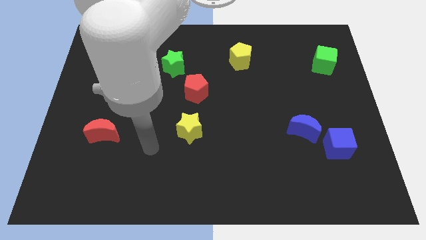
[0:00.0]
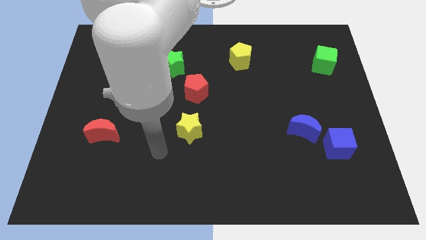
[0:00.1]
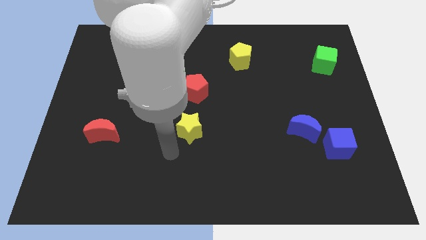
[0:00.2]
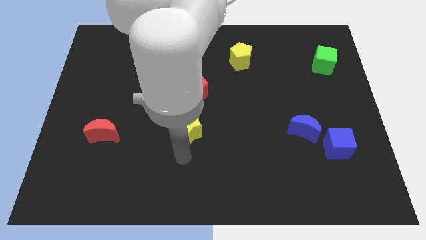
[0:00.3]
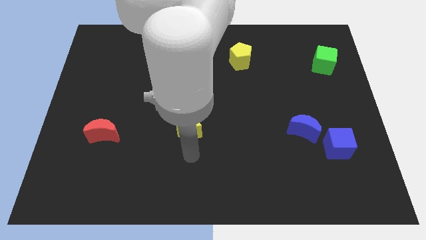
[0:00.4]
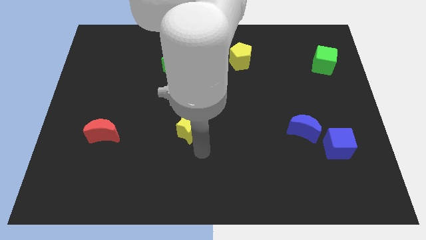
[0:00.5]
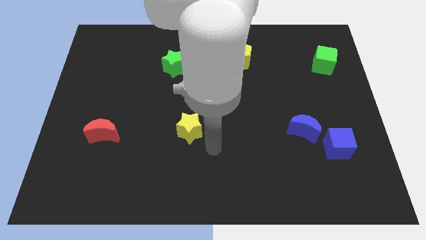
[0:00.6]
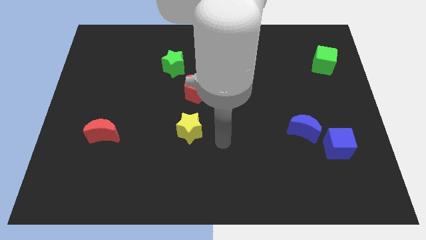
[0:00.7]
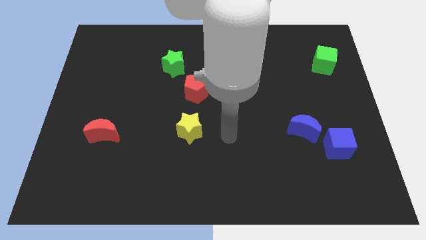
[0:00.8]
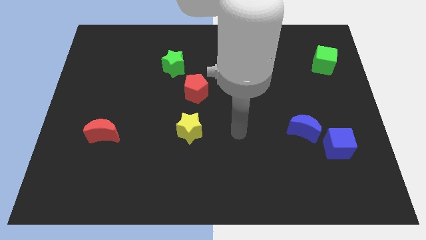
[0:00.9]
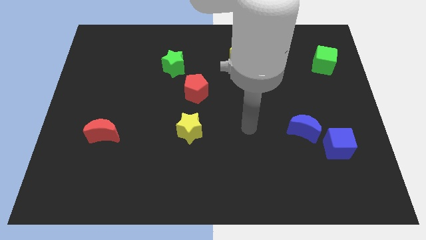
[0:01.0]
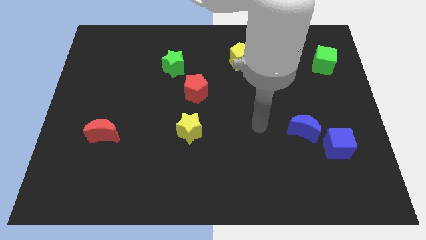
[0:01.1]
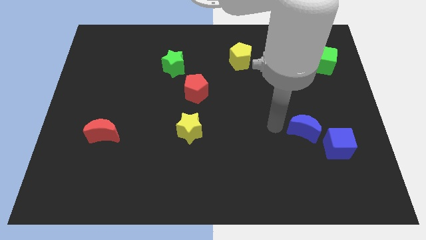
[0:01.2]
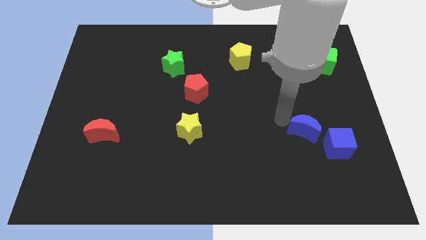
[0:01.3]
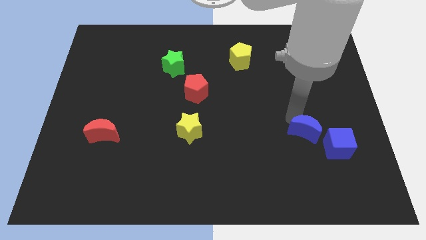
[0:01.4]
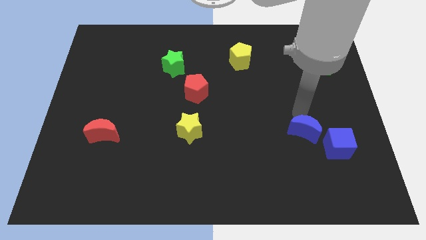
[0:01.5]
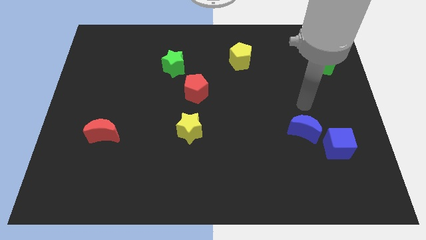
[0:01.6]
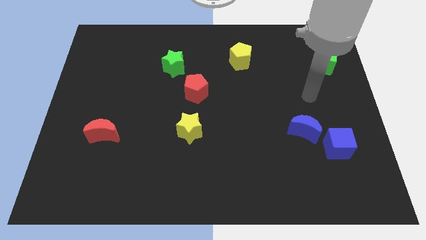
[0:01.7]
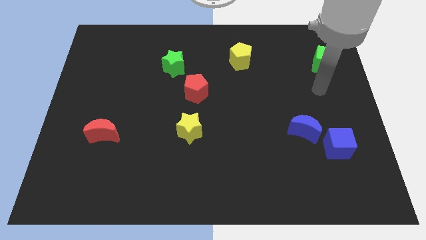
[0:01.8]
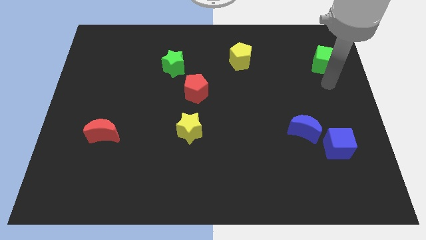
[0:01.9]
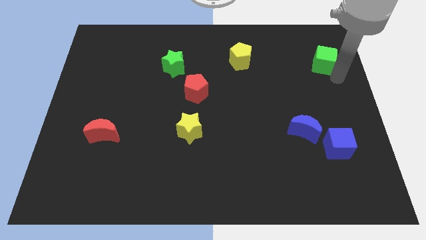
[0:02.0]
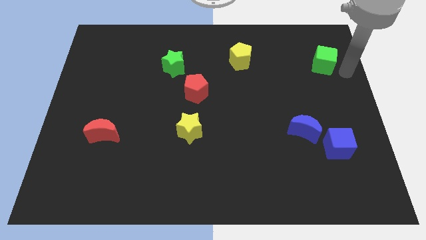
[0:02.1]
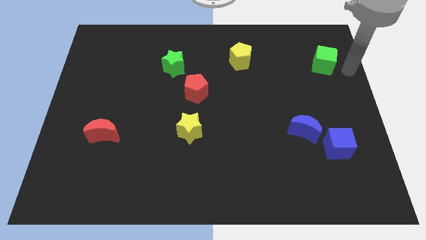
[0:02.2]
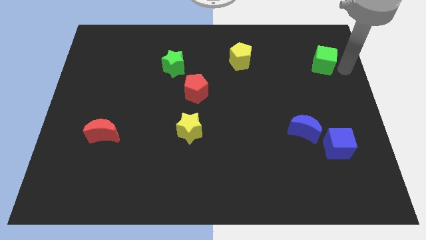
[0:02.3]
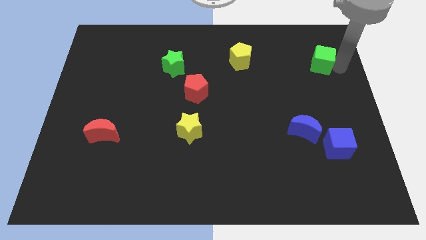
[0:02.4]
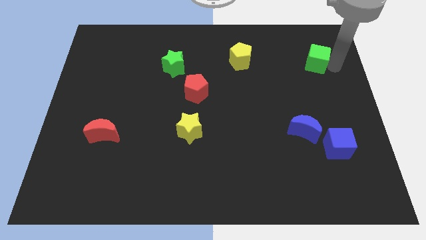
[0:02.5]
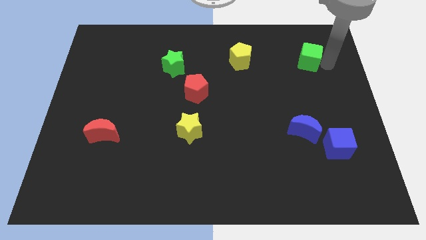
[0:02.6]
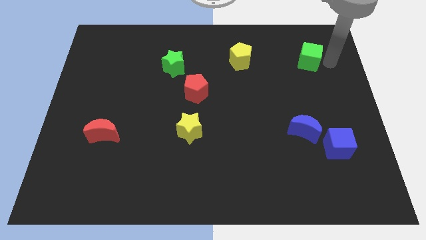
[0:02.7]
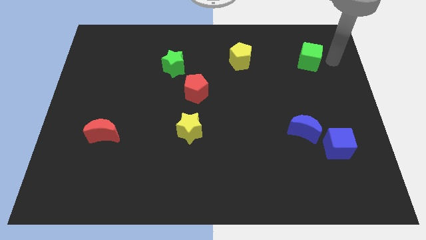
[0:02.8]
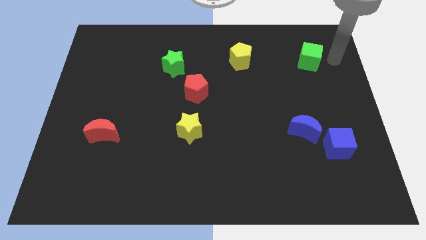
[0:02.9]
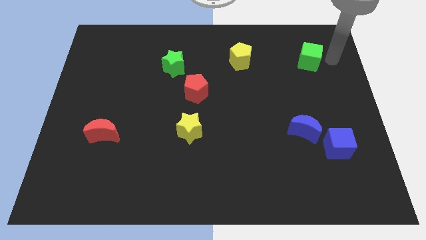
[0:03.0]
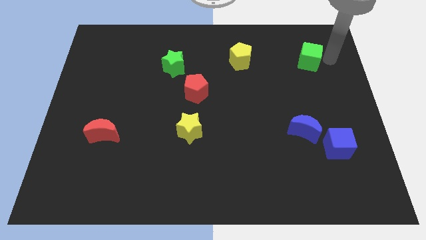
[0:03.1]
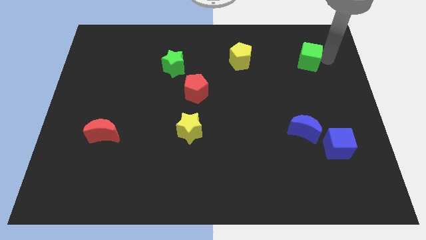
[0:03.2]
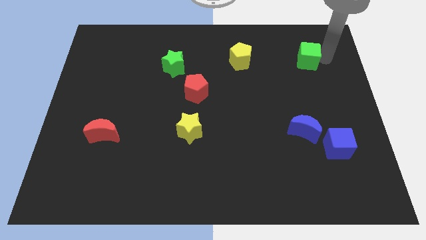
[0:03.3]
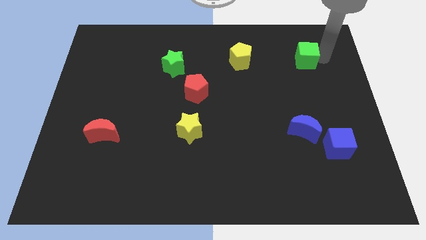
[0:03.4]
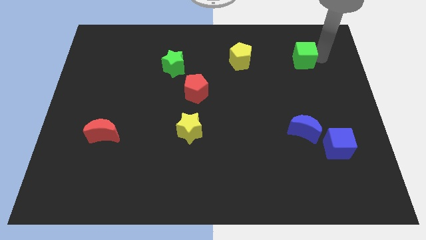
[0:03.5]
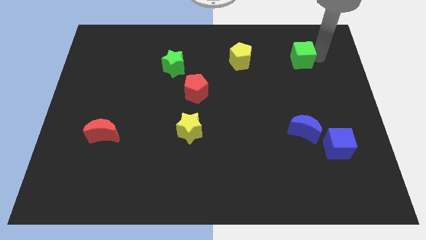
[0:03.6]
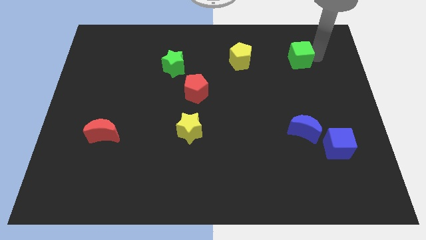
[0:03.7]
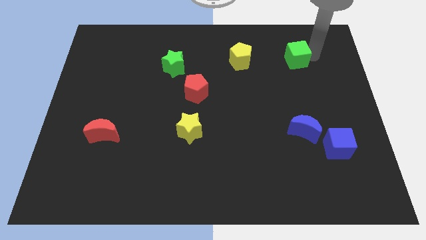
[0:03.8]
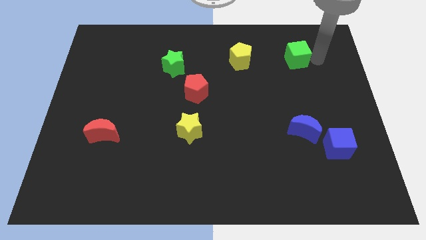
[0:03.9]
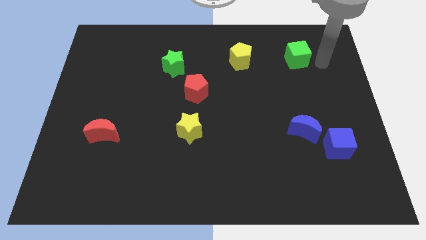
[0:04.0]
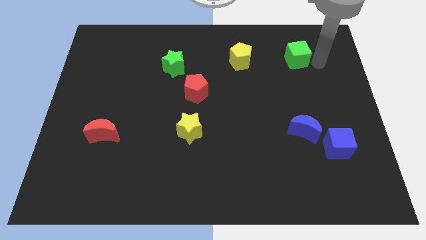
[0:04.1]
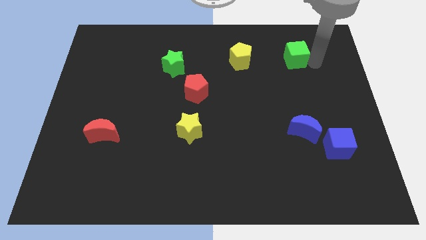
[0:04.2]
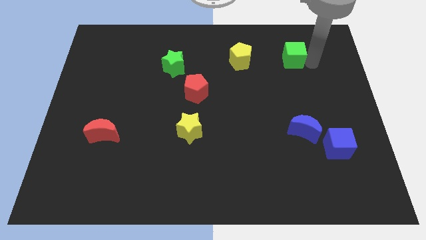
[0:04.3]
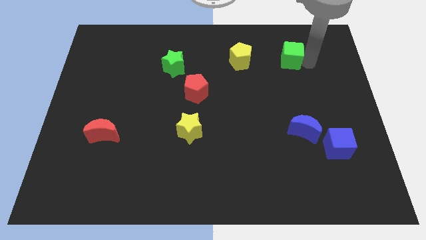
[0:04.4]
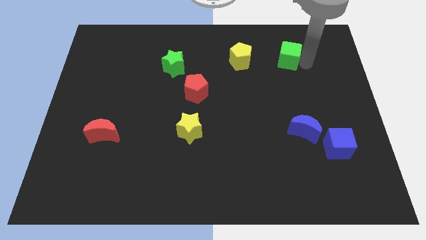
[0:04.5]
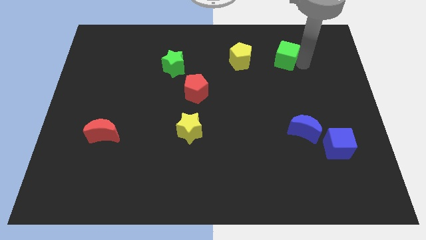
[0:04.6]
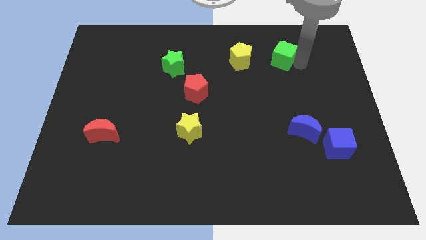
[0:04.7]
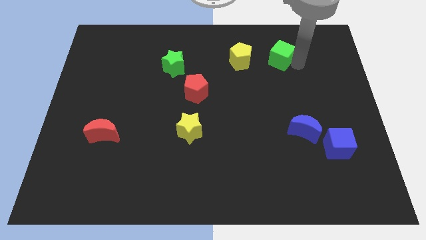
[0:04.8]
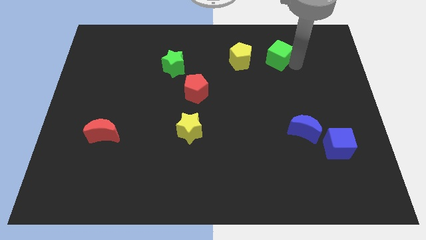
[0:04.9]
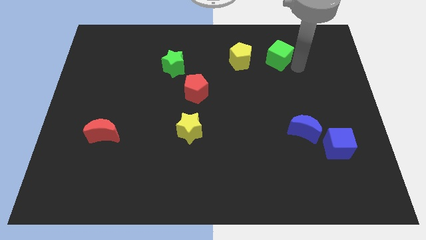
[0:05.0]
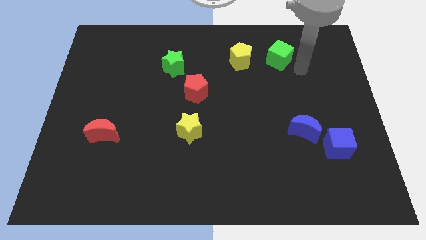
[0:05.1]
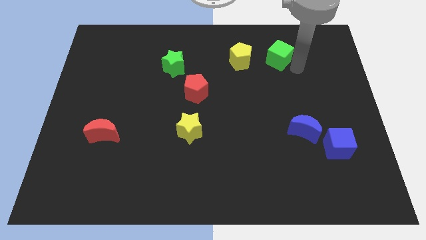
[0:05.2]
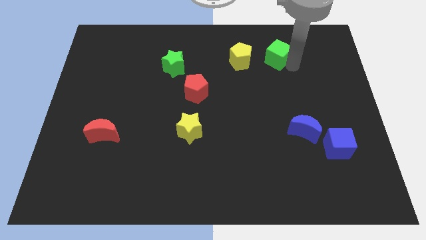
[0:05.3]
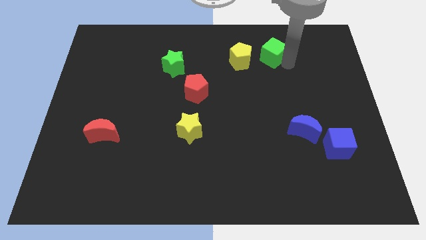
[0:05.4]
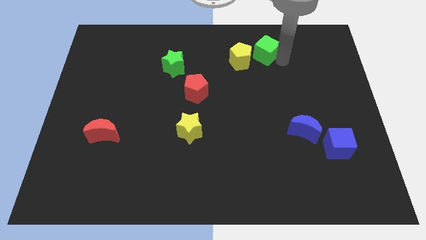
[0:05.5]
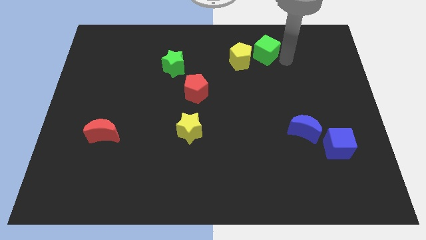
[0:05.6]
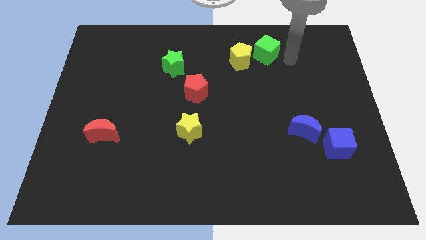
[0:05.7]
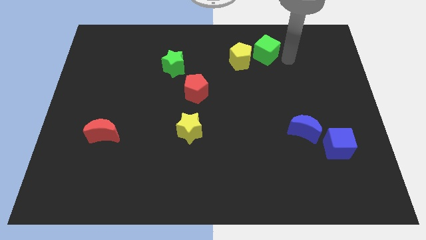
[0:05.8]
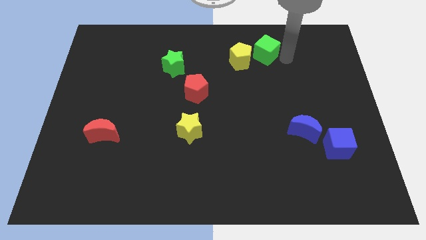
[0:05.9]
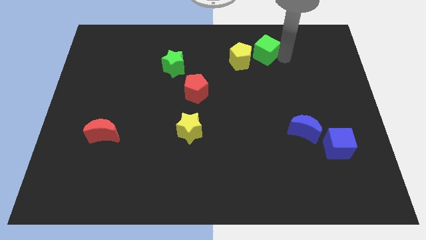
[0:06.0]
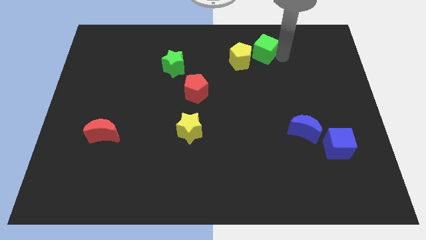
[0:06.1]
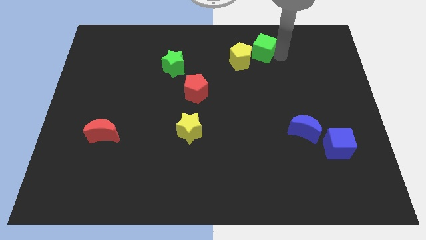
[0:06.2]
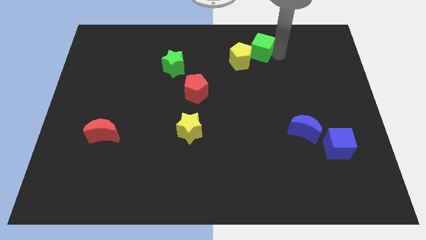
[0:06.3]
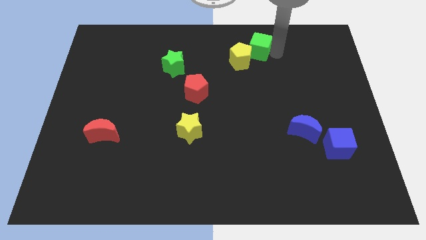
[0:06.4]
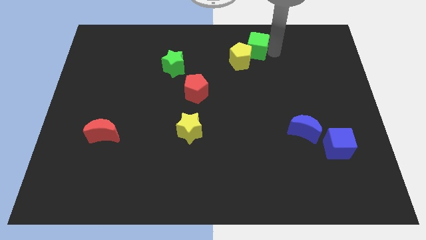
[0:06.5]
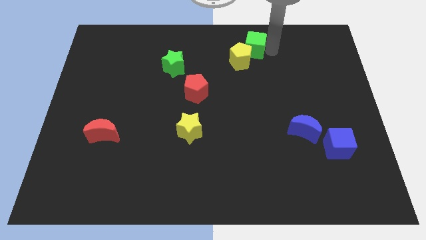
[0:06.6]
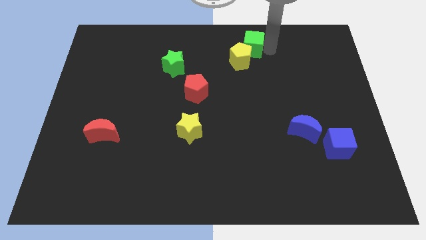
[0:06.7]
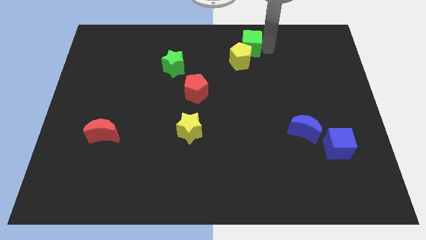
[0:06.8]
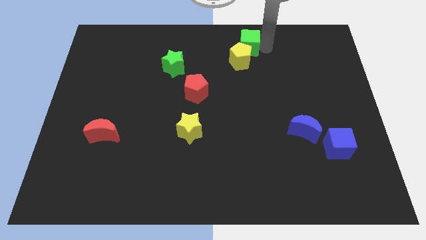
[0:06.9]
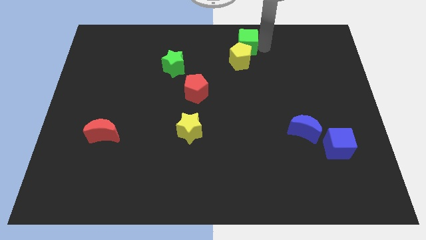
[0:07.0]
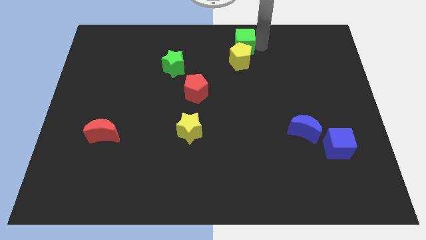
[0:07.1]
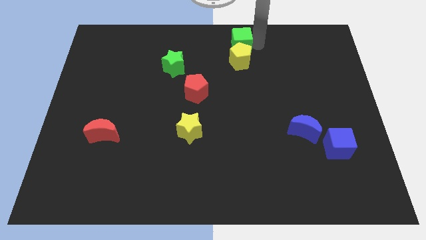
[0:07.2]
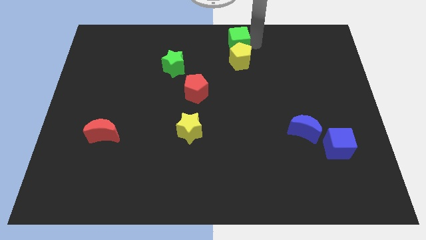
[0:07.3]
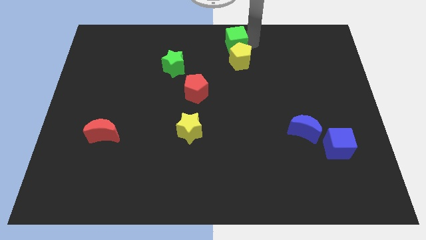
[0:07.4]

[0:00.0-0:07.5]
push the green cube to the left

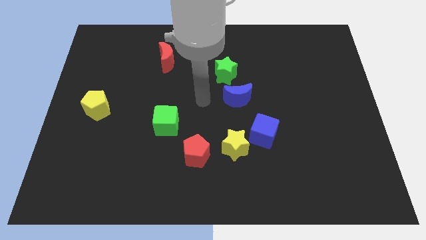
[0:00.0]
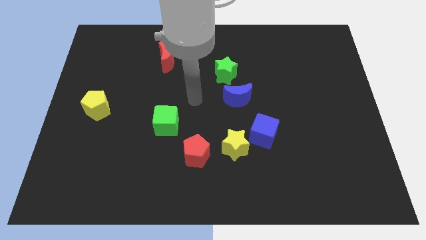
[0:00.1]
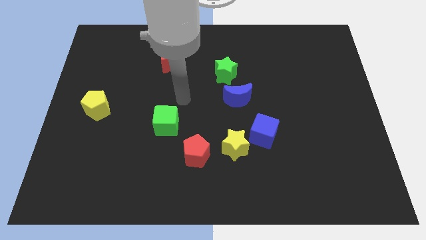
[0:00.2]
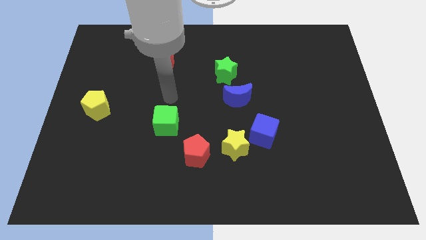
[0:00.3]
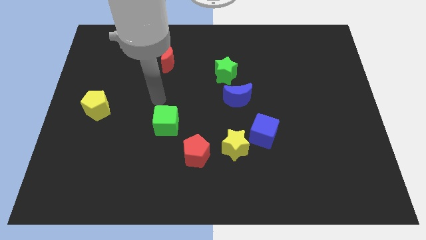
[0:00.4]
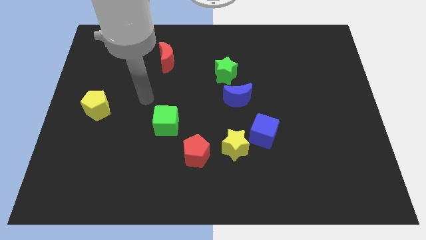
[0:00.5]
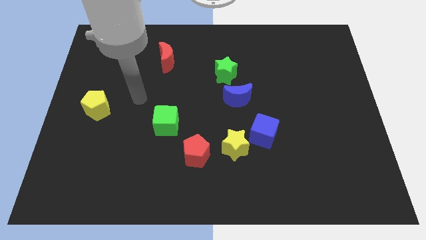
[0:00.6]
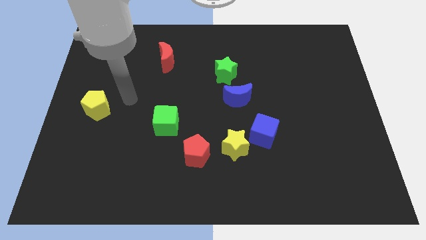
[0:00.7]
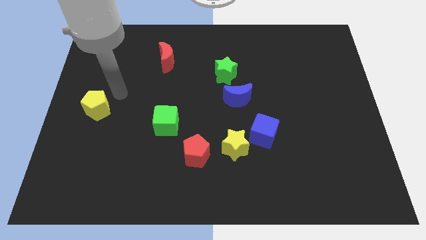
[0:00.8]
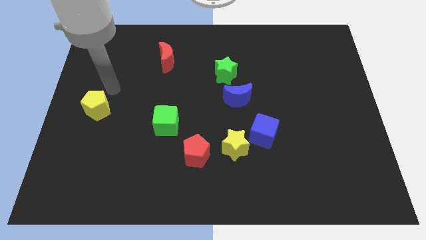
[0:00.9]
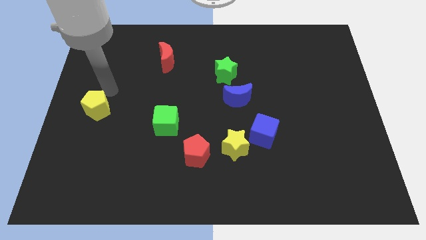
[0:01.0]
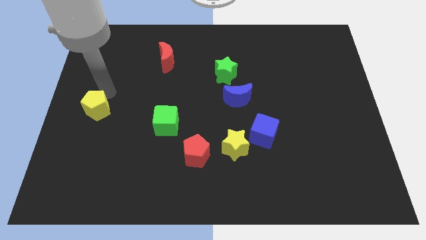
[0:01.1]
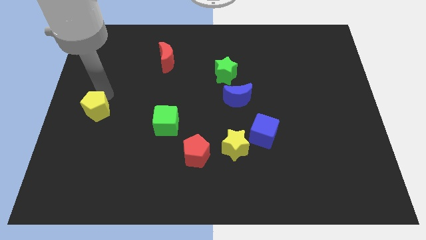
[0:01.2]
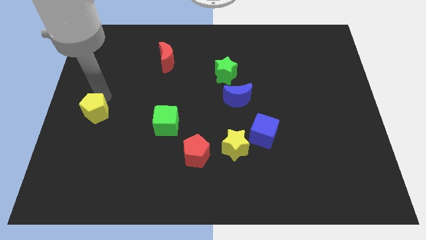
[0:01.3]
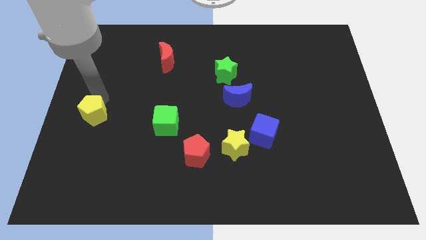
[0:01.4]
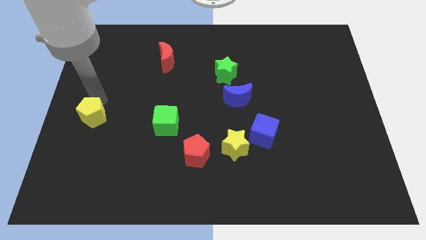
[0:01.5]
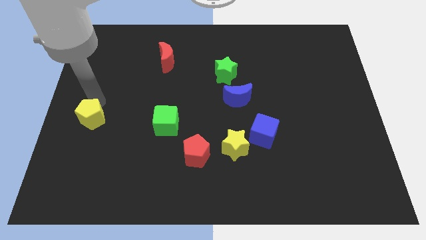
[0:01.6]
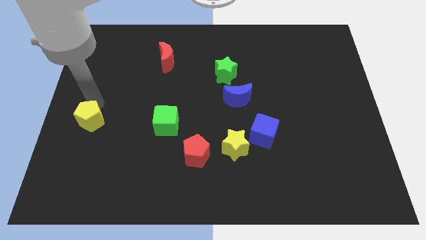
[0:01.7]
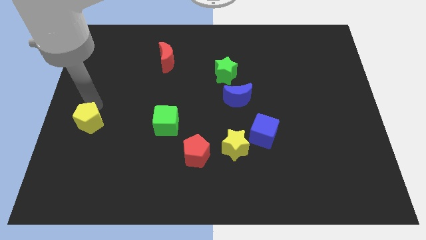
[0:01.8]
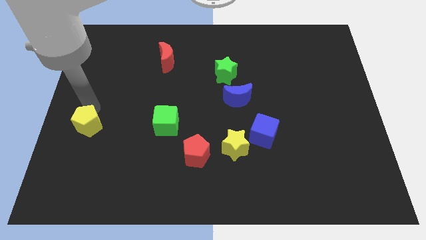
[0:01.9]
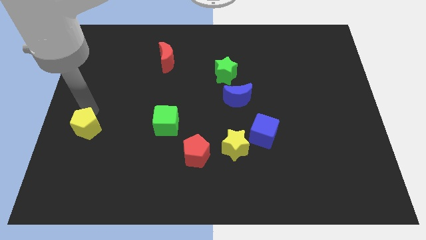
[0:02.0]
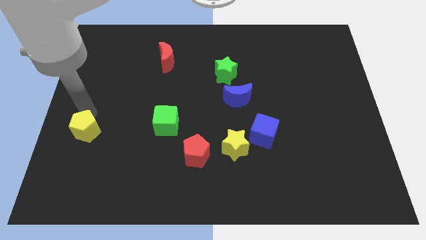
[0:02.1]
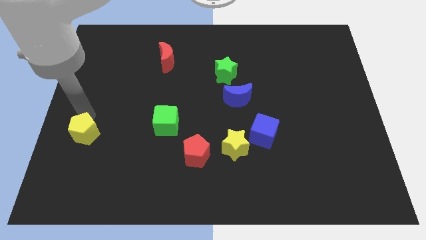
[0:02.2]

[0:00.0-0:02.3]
slightly push the yellow pentagon downwards
